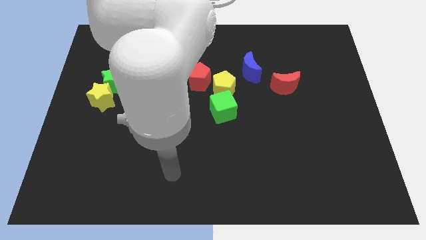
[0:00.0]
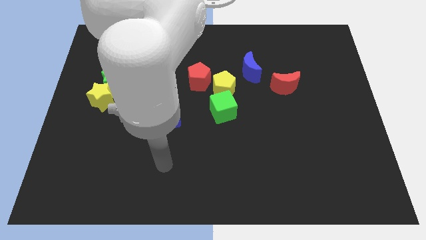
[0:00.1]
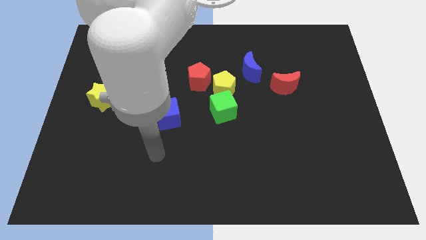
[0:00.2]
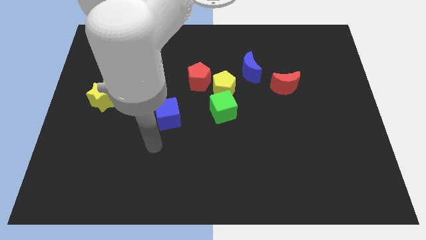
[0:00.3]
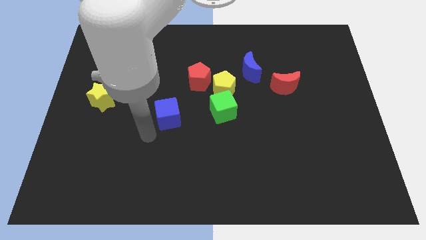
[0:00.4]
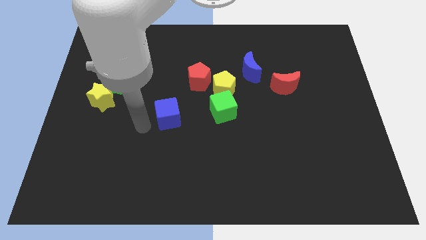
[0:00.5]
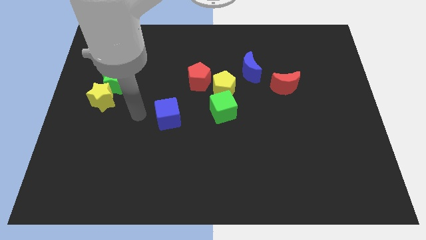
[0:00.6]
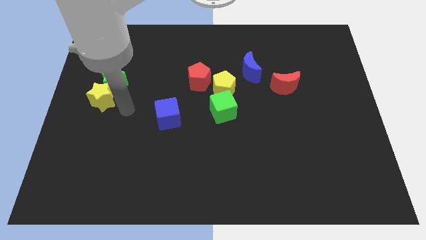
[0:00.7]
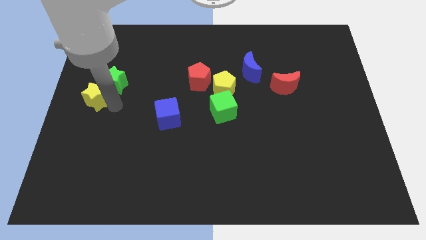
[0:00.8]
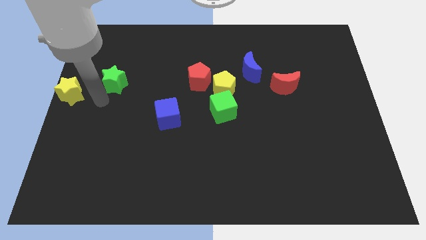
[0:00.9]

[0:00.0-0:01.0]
separate the green star from the yellow star

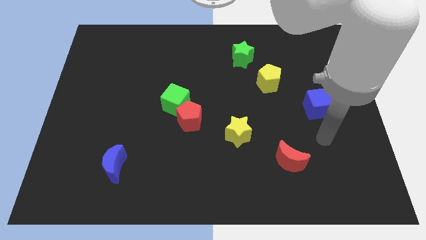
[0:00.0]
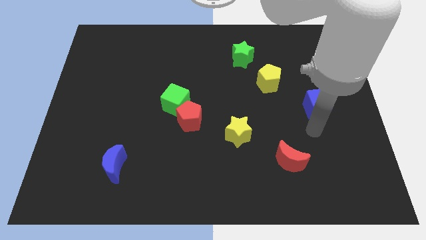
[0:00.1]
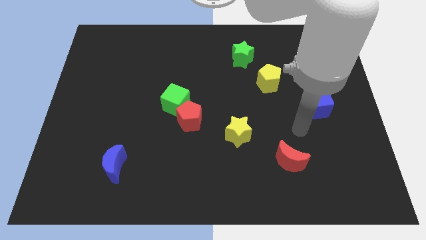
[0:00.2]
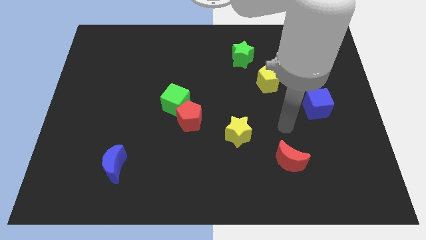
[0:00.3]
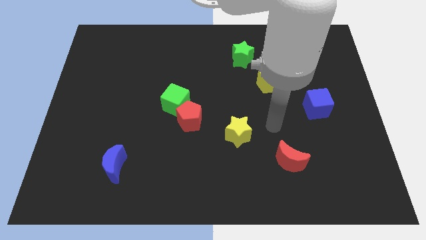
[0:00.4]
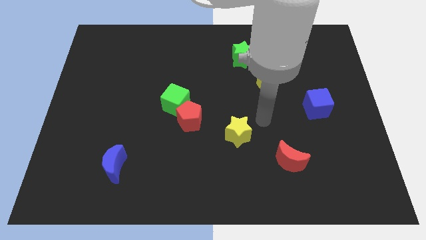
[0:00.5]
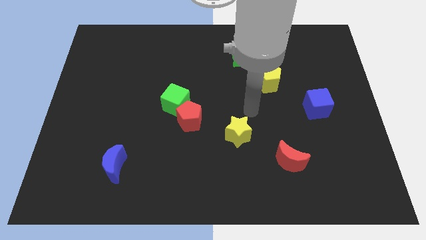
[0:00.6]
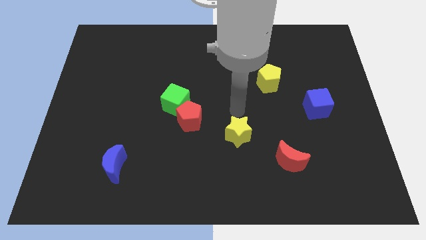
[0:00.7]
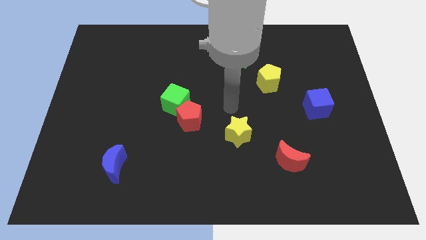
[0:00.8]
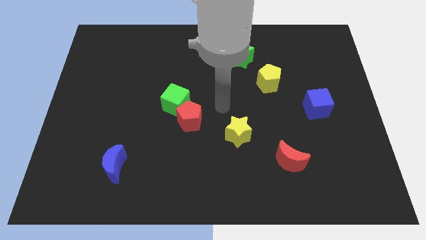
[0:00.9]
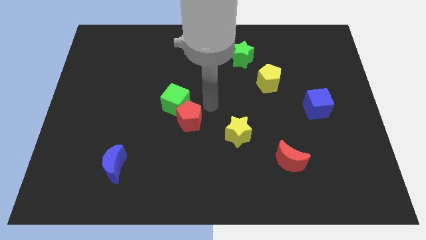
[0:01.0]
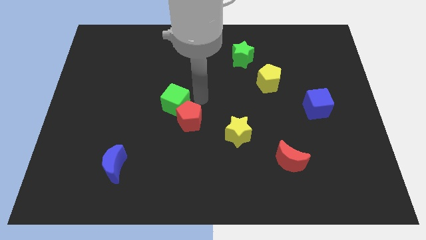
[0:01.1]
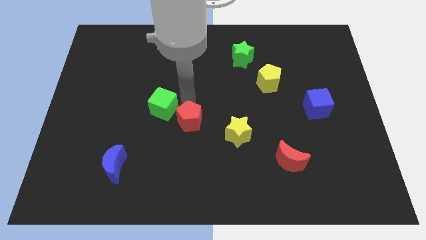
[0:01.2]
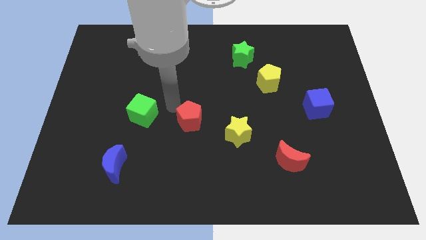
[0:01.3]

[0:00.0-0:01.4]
separate the red pentagon from the green cube

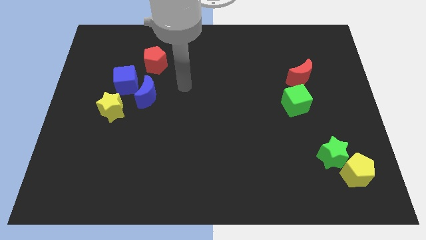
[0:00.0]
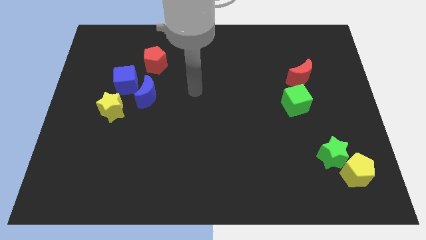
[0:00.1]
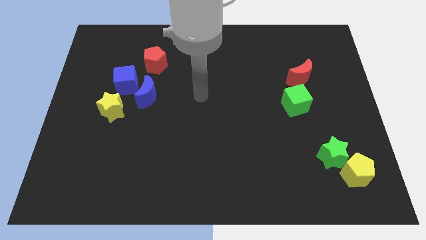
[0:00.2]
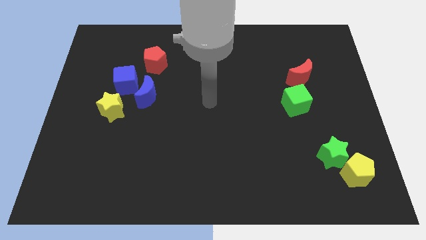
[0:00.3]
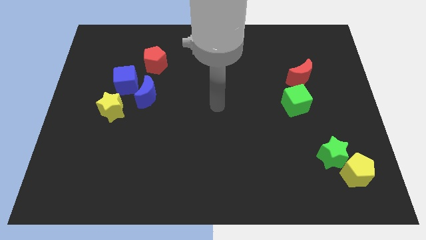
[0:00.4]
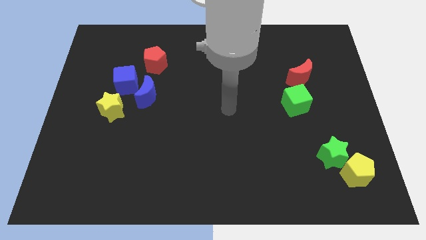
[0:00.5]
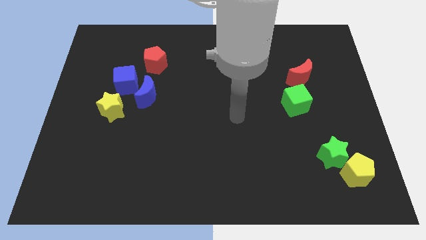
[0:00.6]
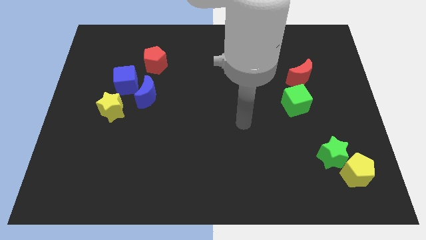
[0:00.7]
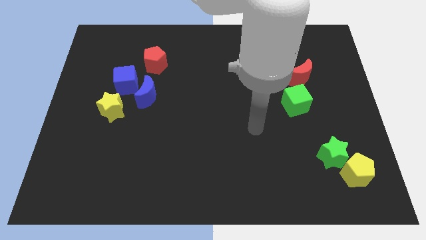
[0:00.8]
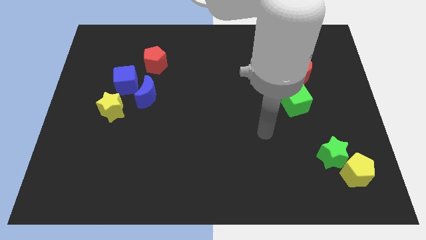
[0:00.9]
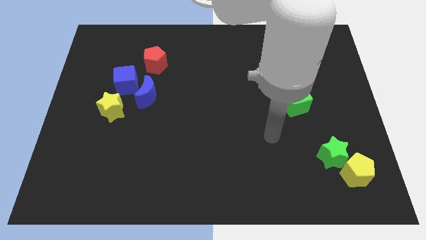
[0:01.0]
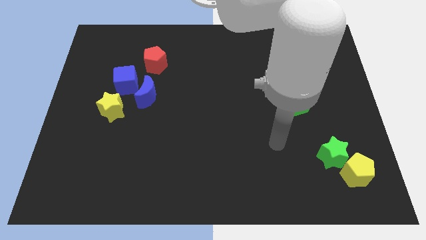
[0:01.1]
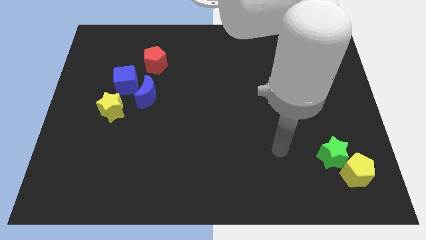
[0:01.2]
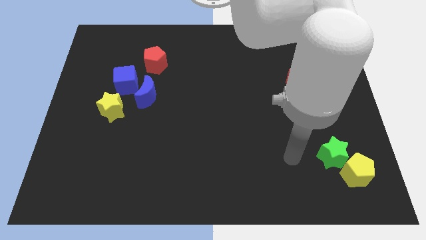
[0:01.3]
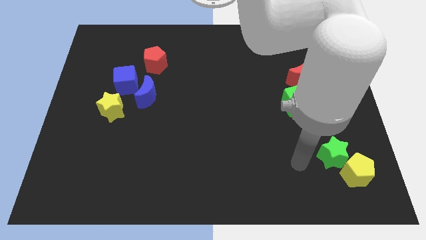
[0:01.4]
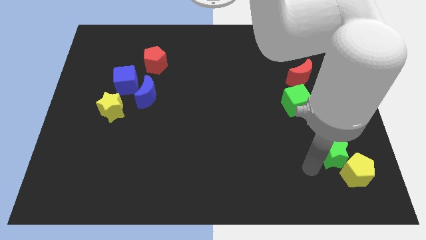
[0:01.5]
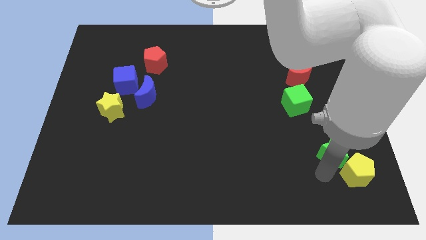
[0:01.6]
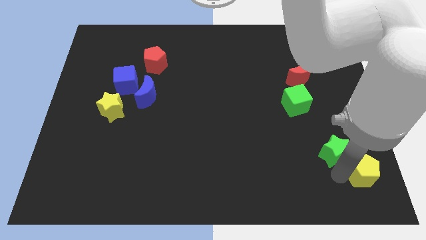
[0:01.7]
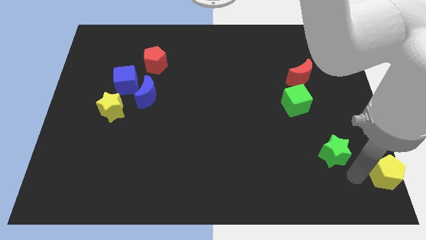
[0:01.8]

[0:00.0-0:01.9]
pull the green star apart from the yellow pentagon

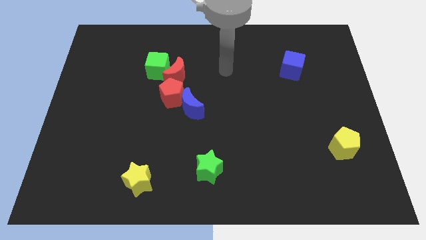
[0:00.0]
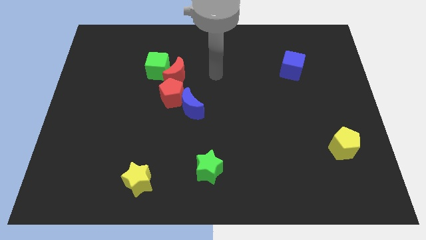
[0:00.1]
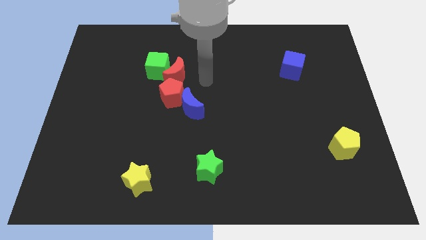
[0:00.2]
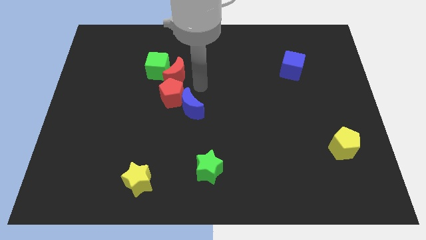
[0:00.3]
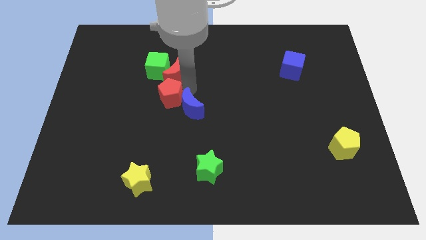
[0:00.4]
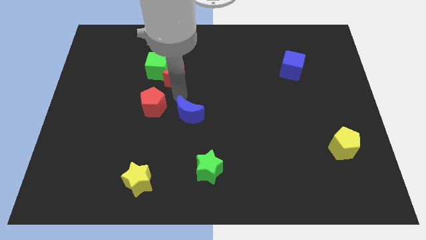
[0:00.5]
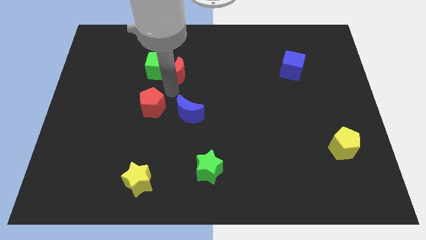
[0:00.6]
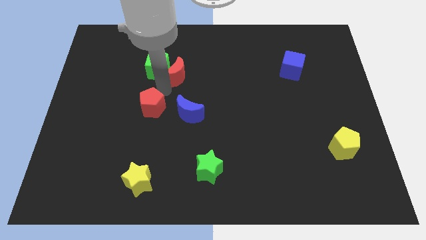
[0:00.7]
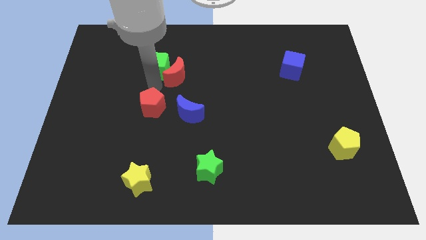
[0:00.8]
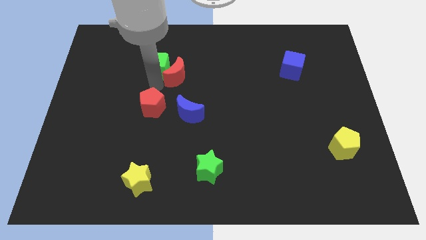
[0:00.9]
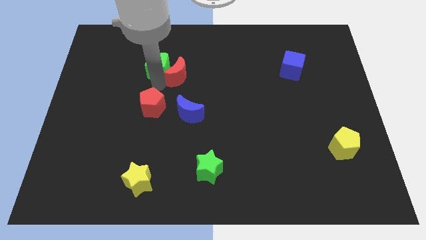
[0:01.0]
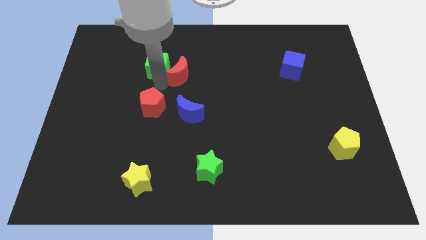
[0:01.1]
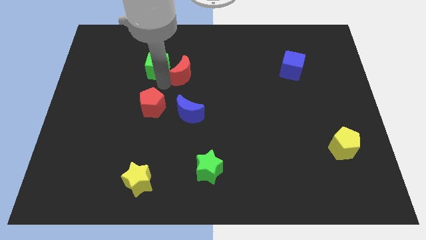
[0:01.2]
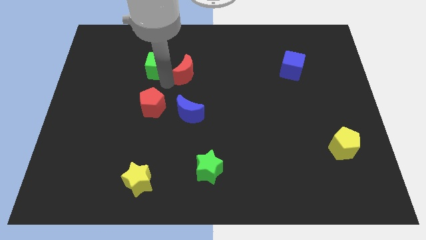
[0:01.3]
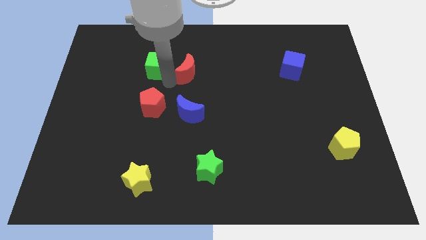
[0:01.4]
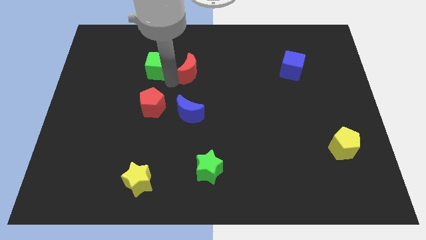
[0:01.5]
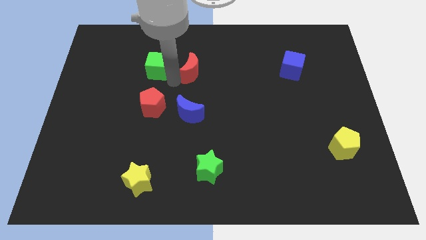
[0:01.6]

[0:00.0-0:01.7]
move the red moon away from the green cube and red pentagon

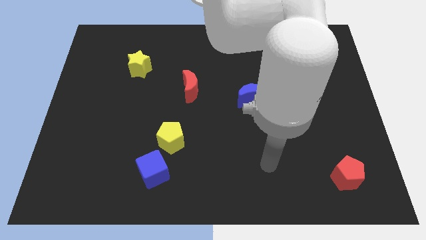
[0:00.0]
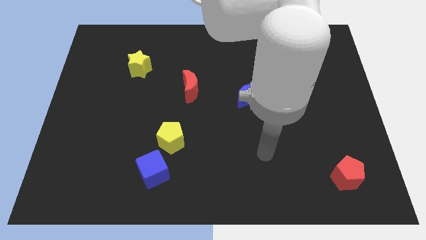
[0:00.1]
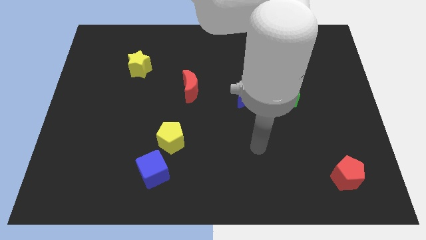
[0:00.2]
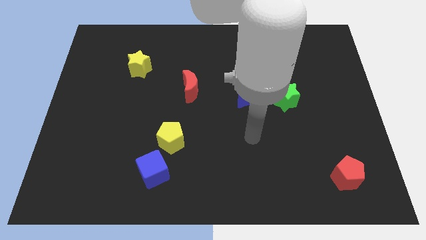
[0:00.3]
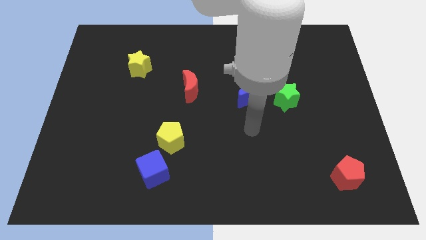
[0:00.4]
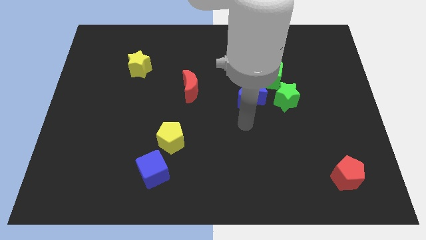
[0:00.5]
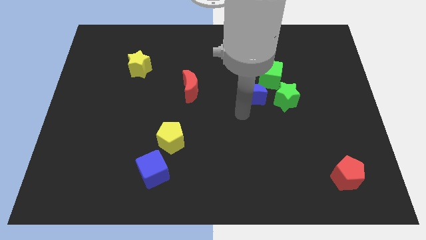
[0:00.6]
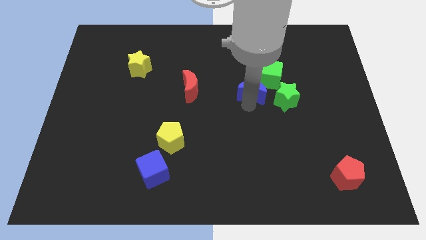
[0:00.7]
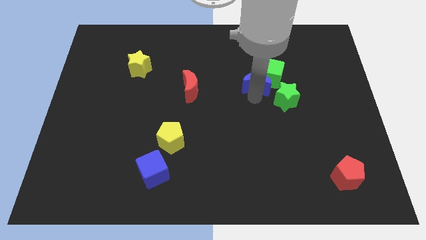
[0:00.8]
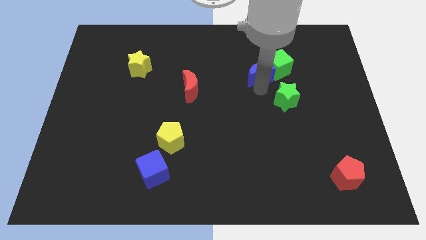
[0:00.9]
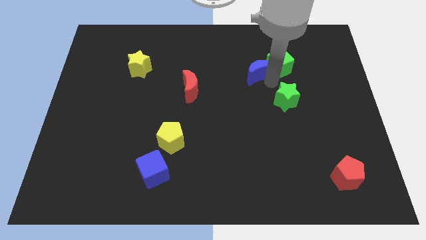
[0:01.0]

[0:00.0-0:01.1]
separate the green star from the green cube and blue moon

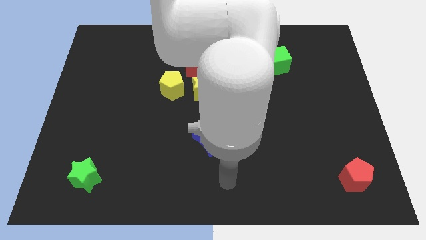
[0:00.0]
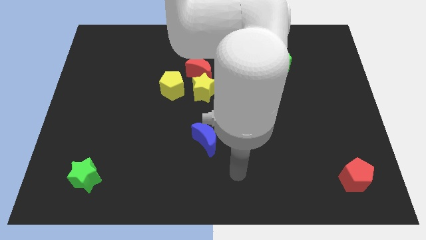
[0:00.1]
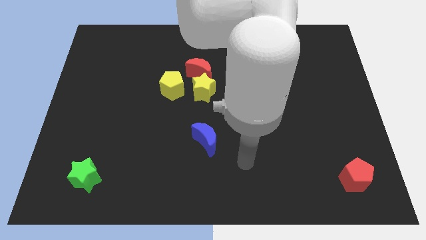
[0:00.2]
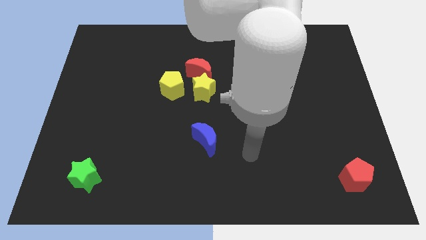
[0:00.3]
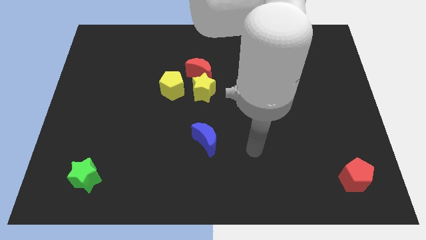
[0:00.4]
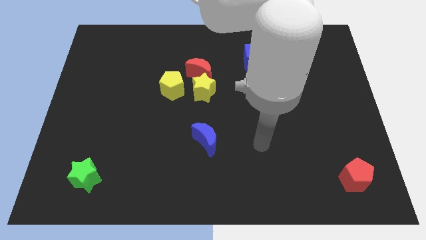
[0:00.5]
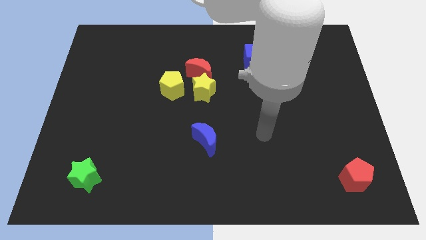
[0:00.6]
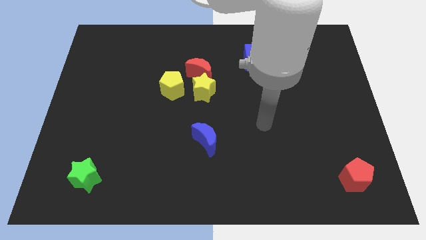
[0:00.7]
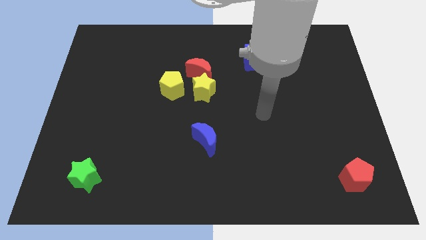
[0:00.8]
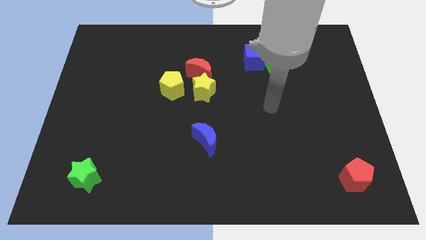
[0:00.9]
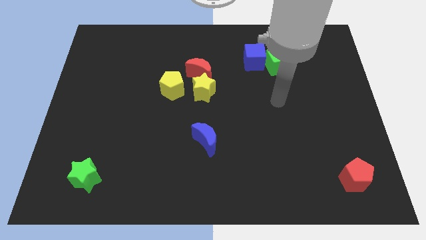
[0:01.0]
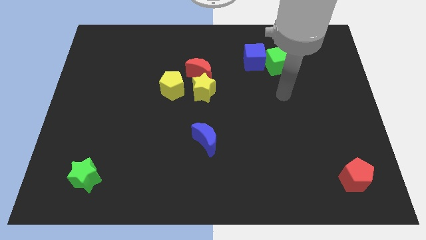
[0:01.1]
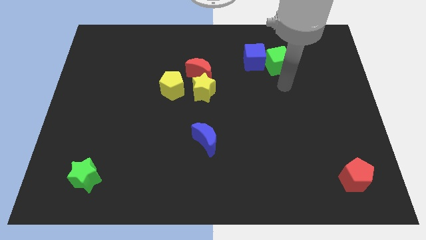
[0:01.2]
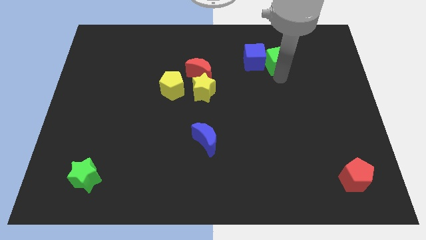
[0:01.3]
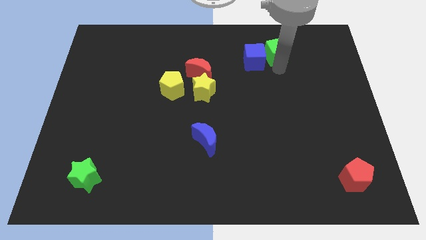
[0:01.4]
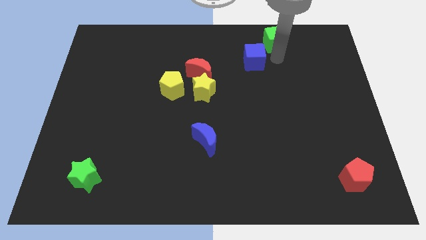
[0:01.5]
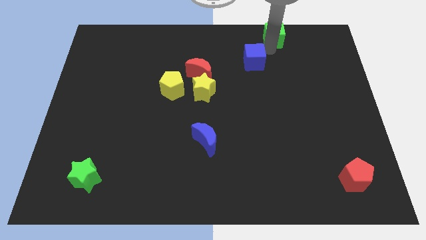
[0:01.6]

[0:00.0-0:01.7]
separate the blue cube from the green cube

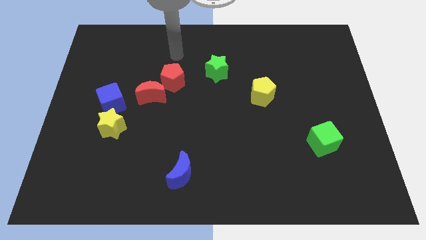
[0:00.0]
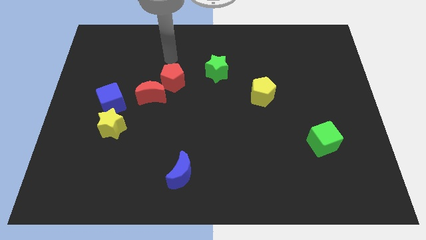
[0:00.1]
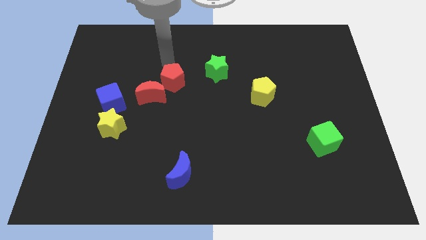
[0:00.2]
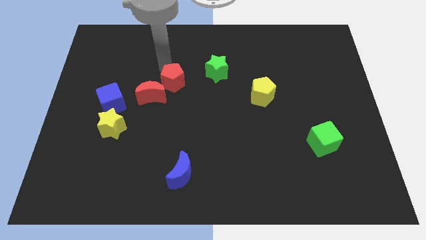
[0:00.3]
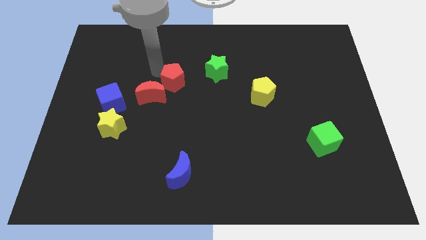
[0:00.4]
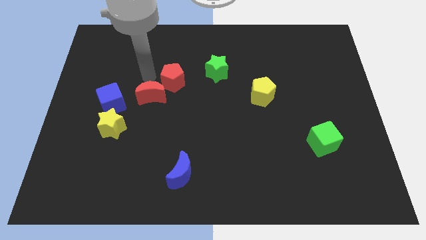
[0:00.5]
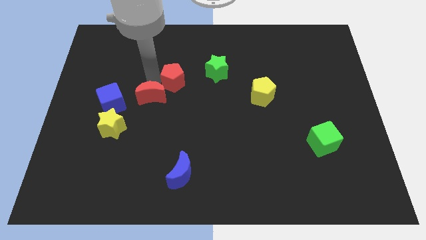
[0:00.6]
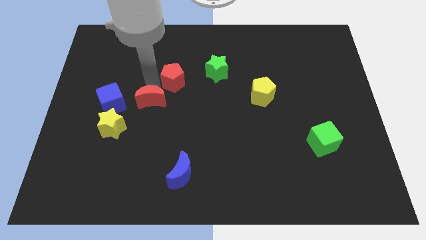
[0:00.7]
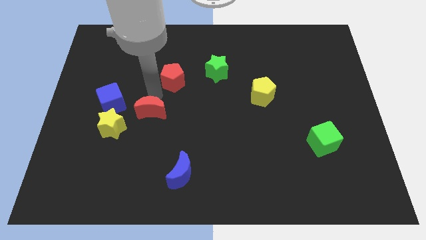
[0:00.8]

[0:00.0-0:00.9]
move the red pentagon away from the red moon
